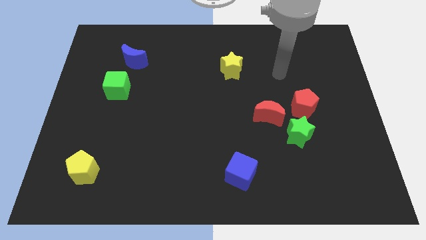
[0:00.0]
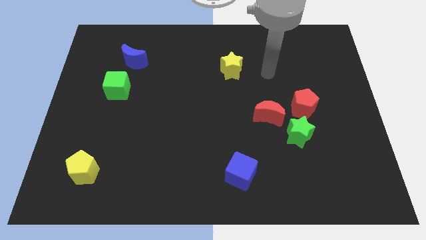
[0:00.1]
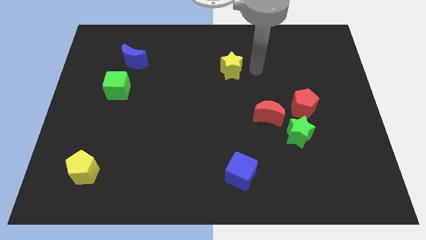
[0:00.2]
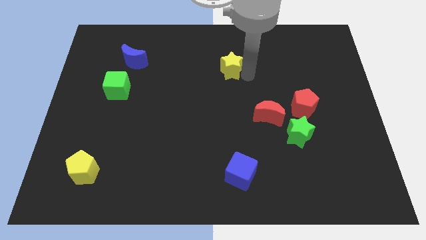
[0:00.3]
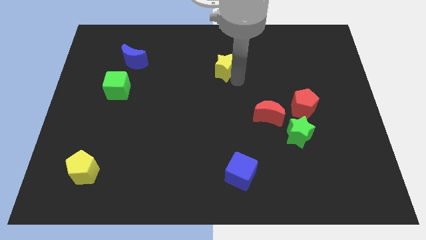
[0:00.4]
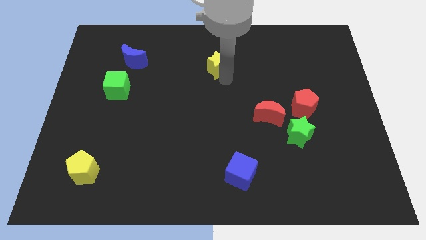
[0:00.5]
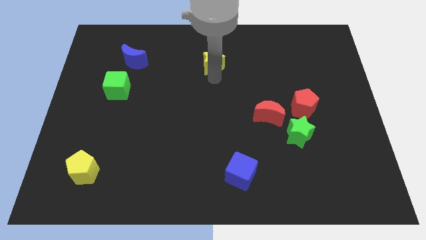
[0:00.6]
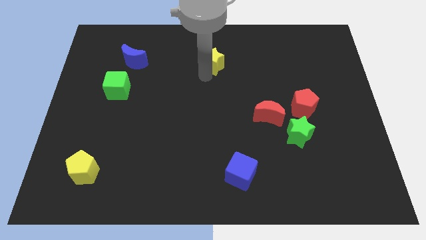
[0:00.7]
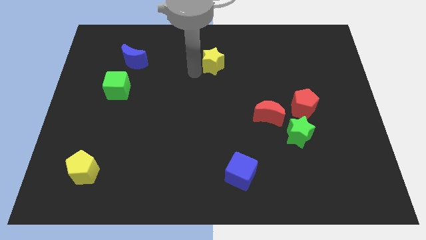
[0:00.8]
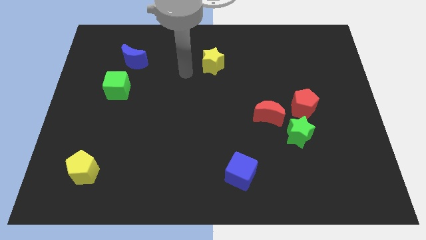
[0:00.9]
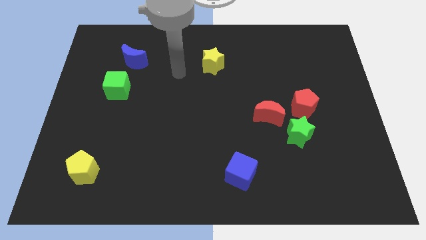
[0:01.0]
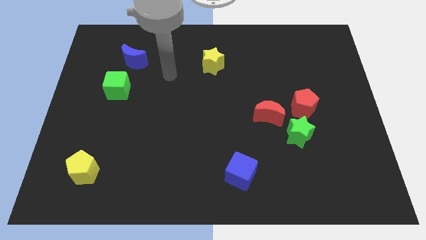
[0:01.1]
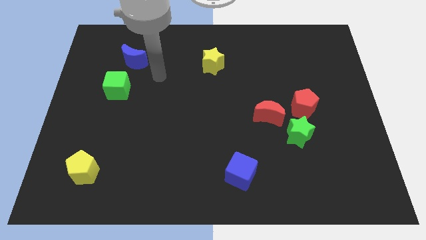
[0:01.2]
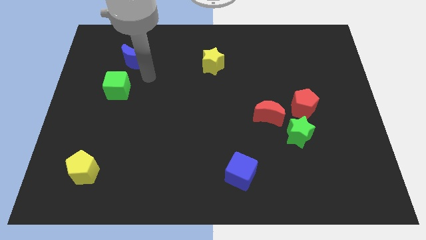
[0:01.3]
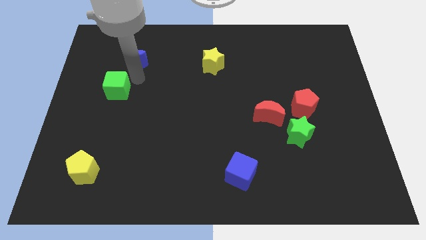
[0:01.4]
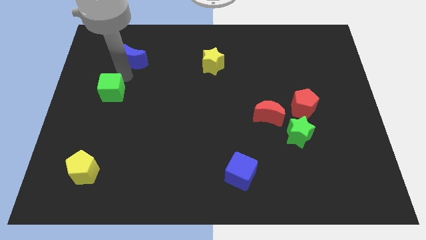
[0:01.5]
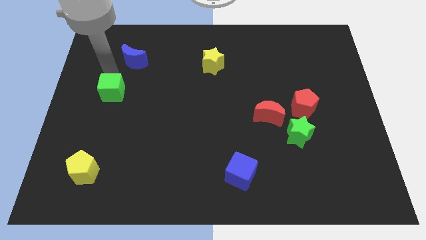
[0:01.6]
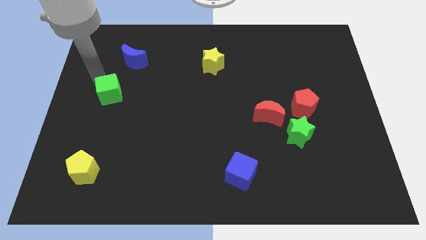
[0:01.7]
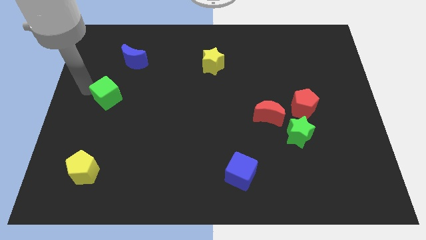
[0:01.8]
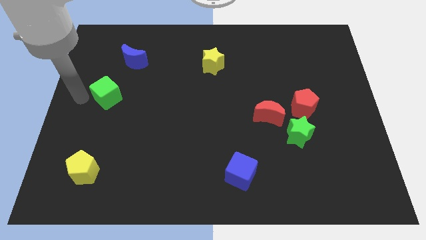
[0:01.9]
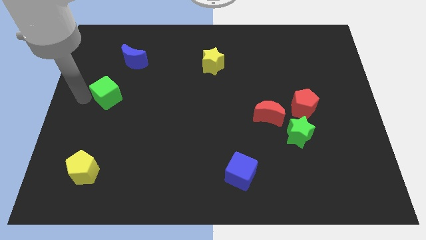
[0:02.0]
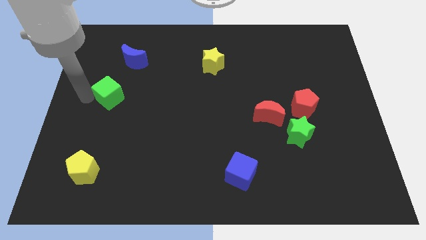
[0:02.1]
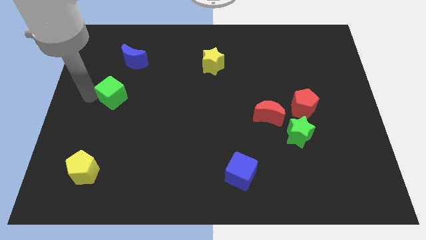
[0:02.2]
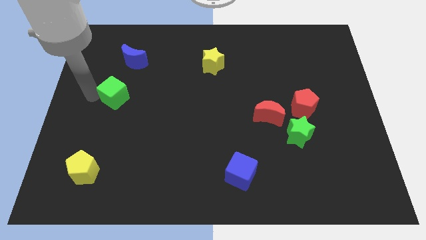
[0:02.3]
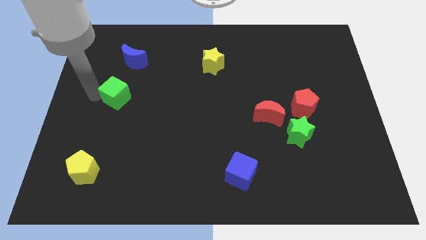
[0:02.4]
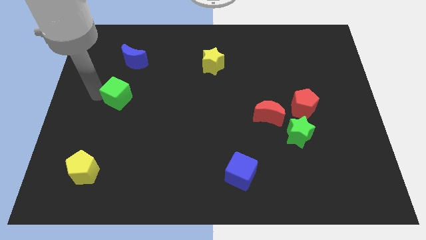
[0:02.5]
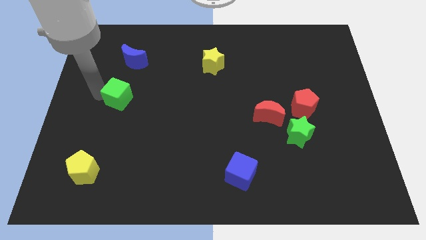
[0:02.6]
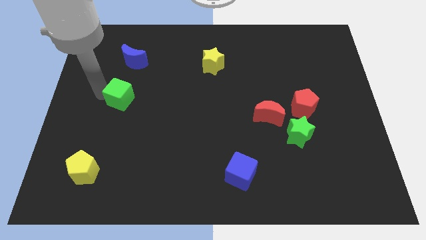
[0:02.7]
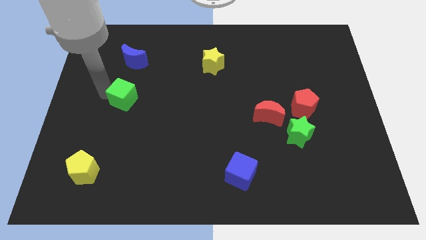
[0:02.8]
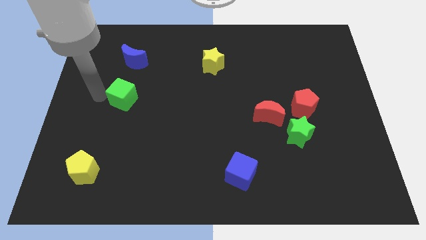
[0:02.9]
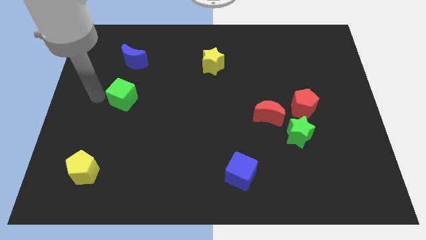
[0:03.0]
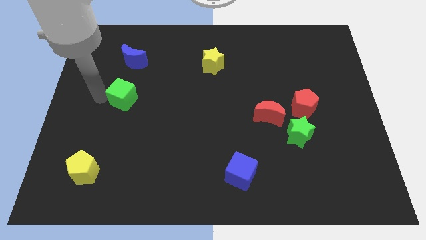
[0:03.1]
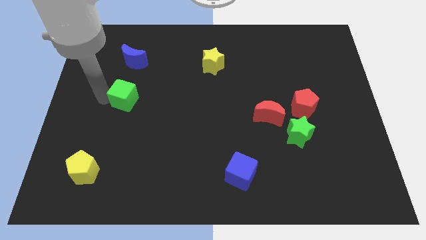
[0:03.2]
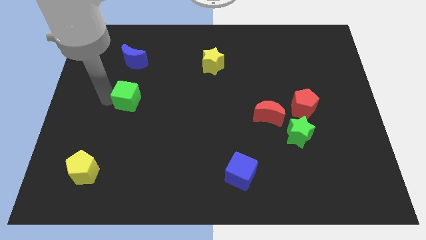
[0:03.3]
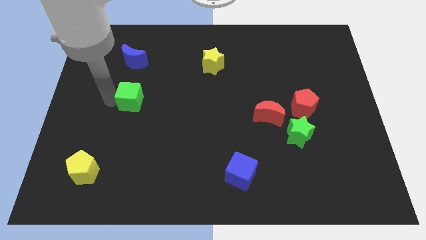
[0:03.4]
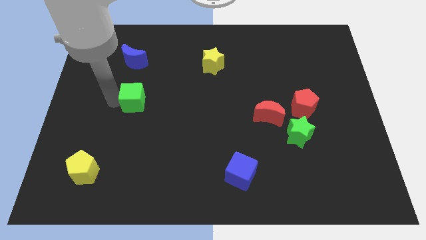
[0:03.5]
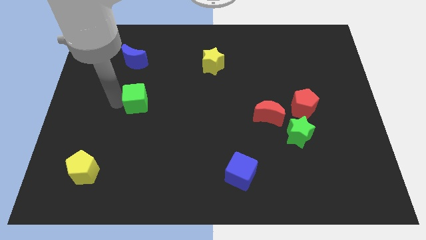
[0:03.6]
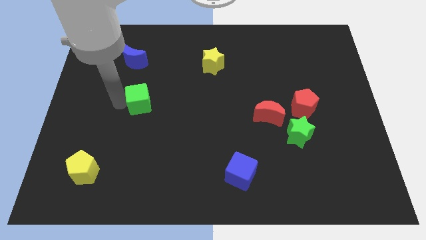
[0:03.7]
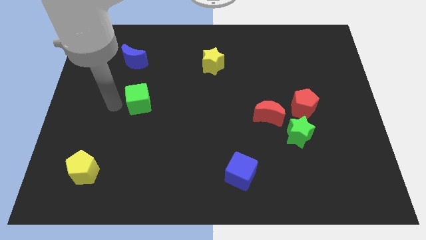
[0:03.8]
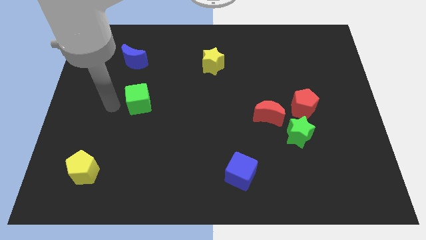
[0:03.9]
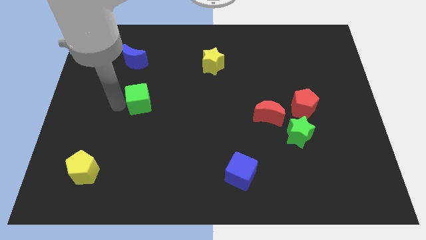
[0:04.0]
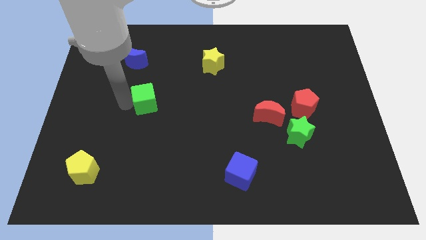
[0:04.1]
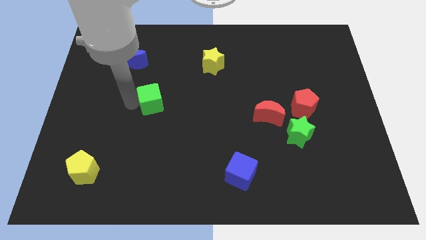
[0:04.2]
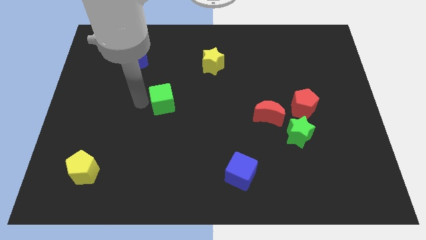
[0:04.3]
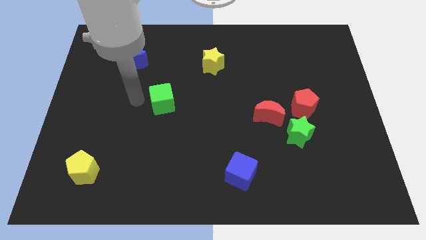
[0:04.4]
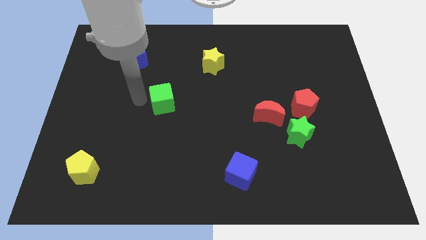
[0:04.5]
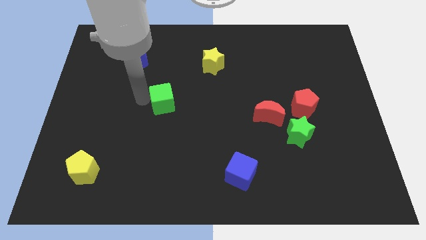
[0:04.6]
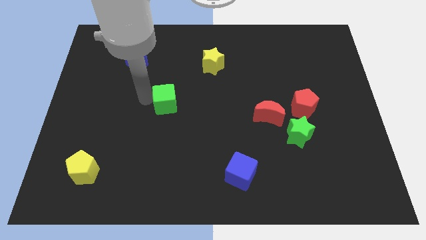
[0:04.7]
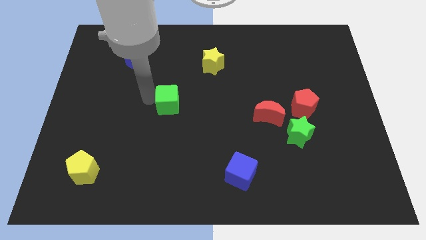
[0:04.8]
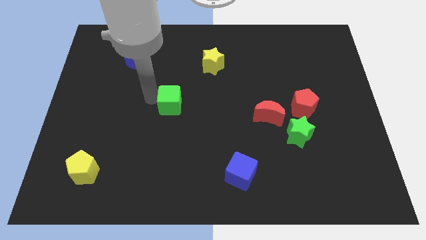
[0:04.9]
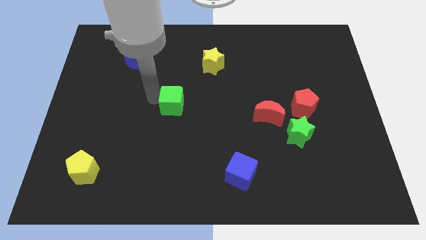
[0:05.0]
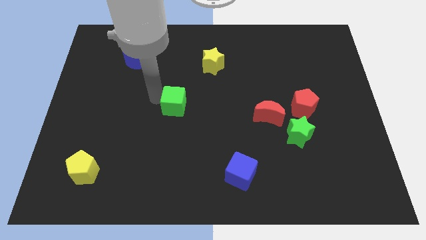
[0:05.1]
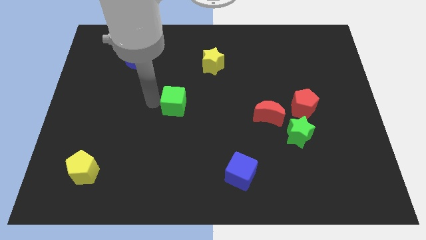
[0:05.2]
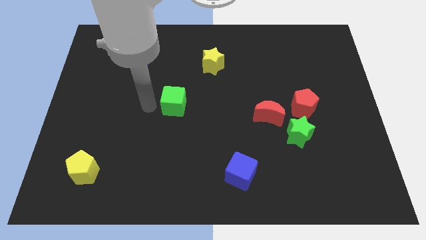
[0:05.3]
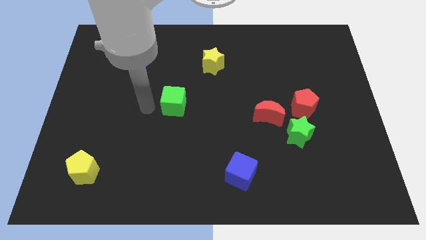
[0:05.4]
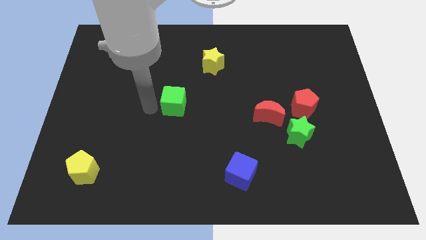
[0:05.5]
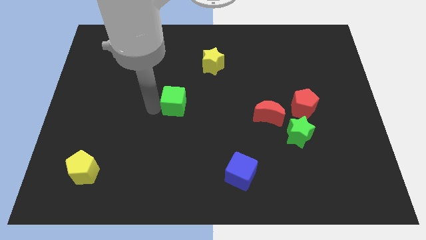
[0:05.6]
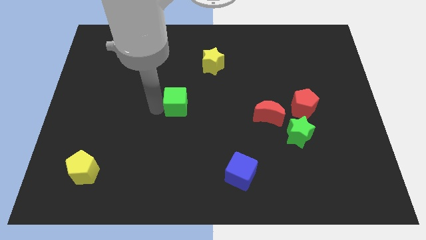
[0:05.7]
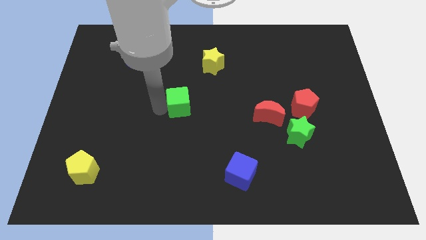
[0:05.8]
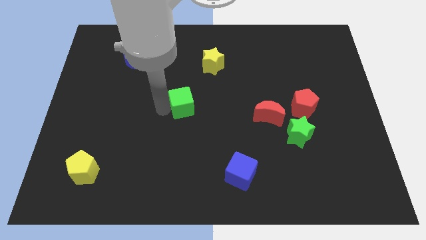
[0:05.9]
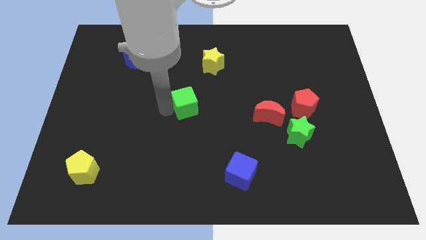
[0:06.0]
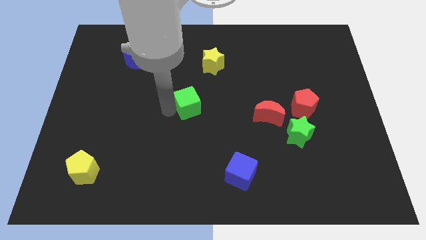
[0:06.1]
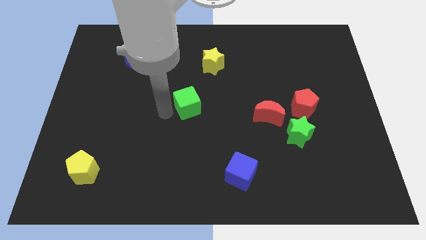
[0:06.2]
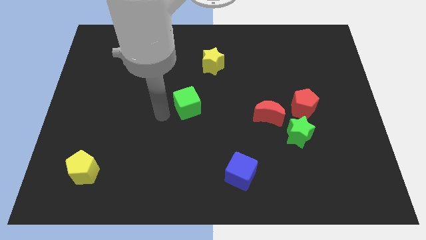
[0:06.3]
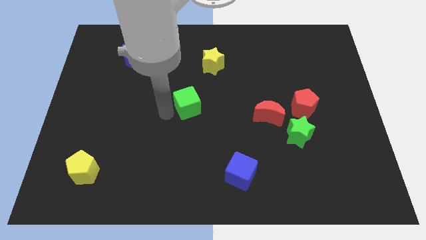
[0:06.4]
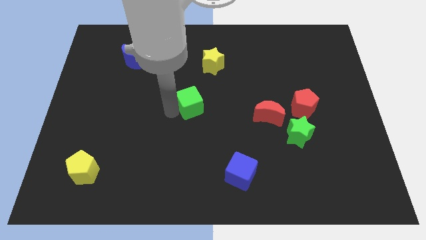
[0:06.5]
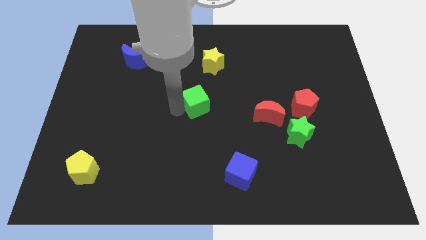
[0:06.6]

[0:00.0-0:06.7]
slide the green cube to the bottom of the yellow star
